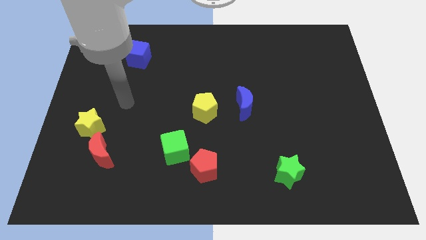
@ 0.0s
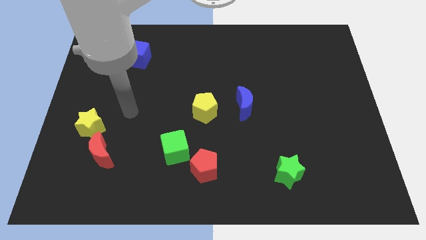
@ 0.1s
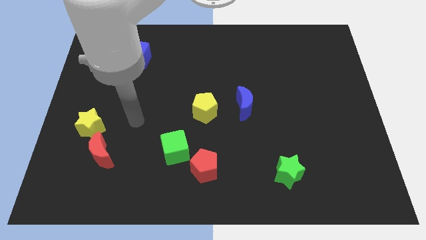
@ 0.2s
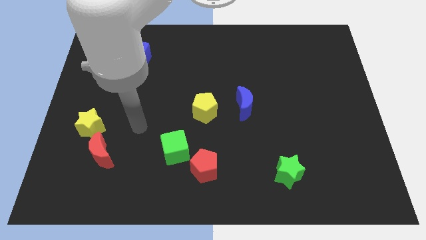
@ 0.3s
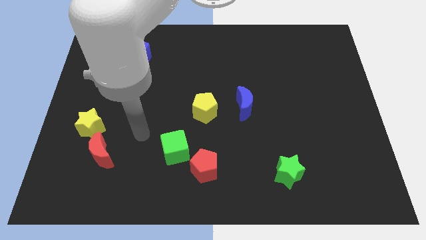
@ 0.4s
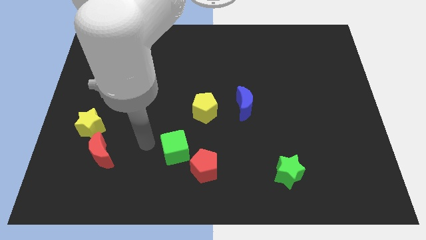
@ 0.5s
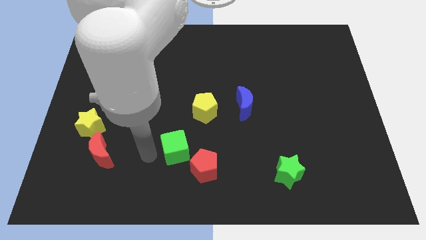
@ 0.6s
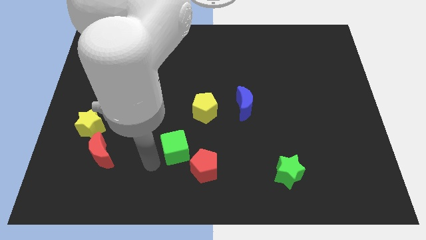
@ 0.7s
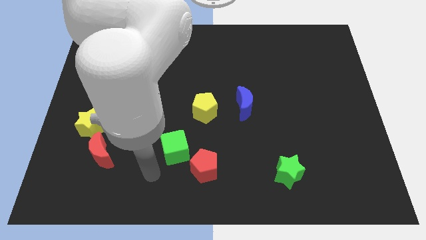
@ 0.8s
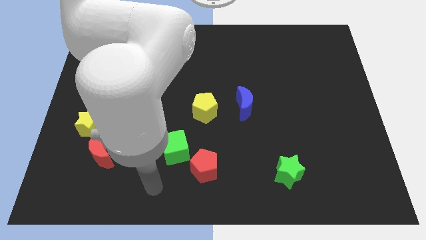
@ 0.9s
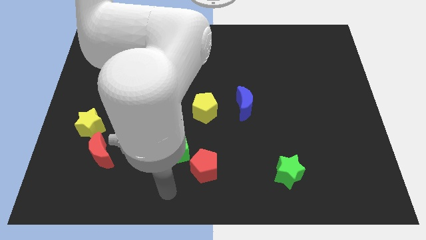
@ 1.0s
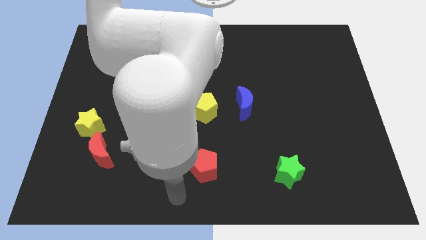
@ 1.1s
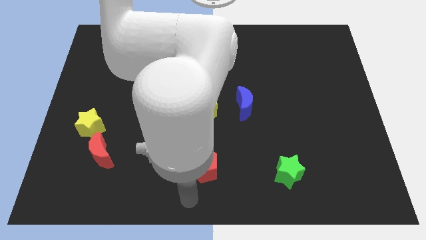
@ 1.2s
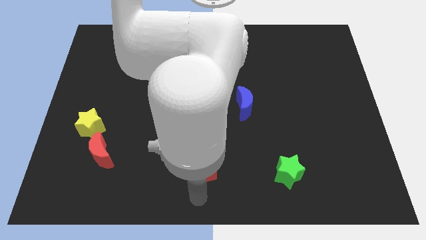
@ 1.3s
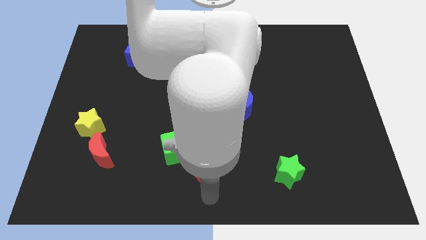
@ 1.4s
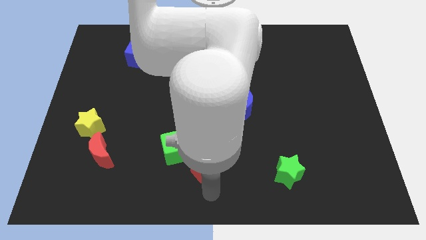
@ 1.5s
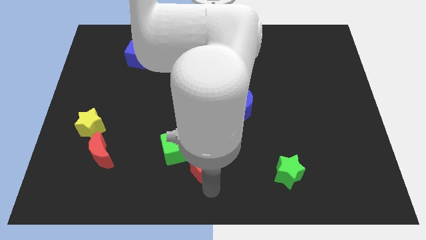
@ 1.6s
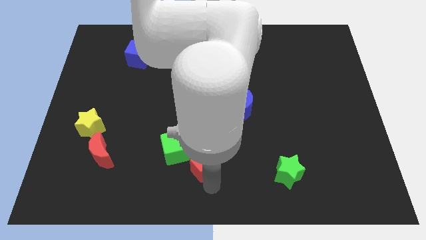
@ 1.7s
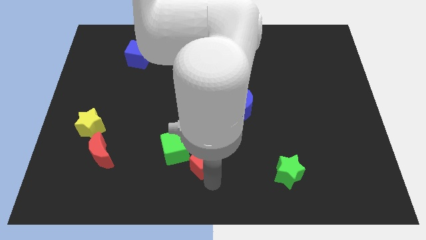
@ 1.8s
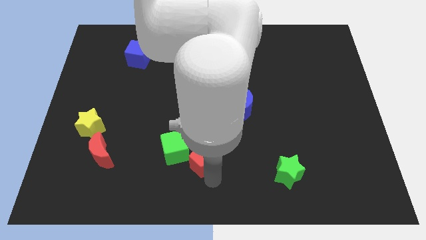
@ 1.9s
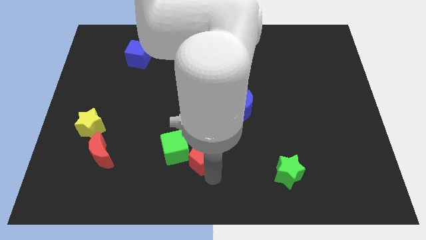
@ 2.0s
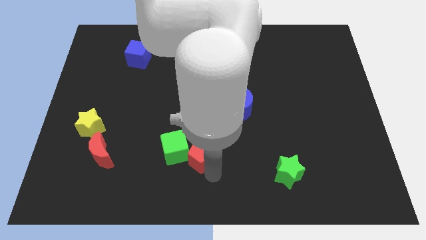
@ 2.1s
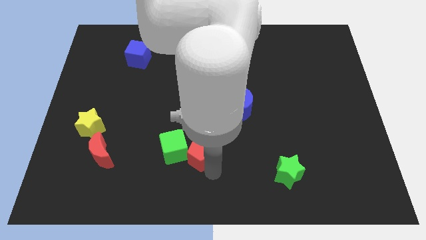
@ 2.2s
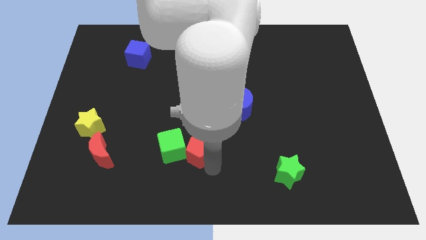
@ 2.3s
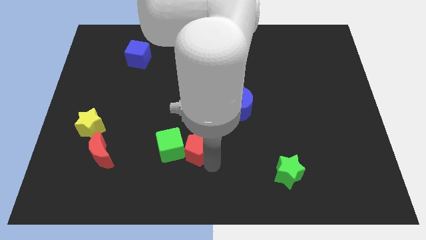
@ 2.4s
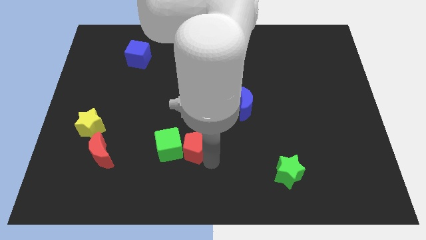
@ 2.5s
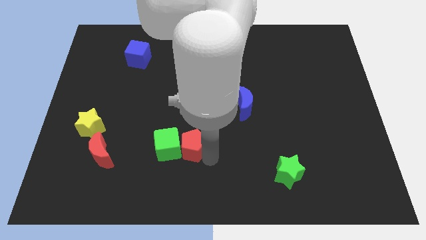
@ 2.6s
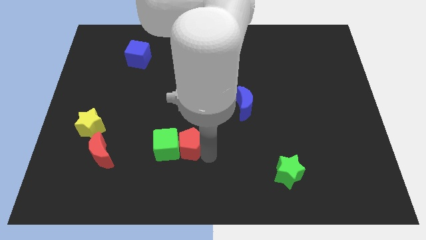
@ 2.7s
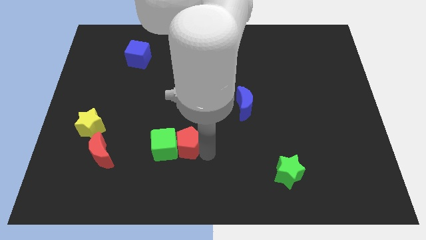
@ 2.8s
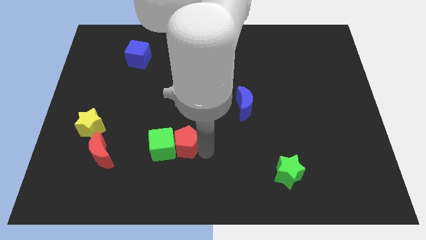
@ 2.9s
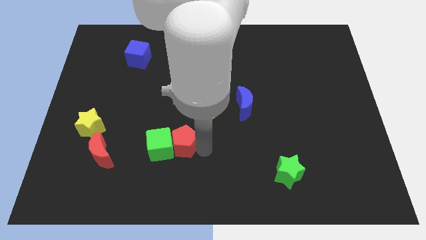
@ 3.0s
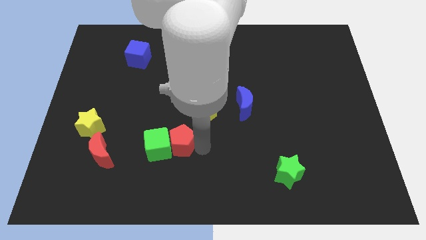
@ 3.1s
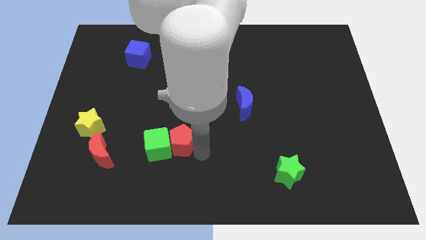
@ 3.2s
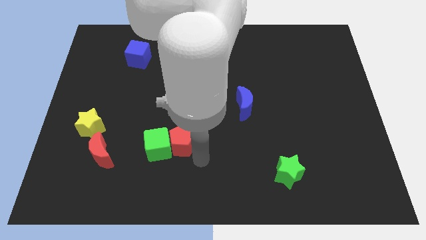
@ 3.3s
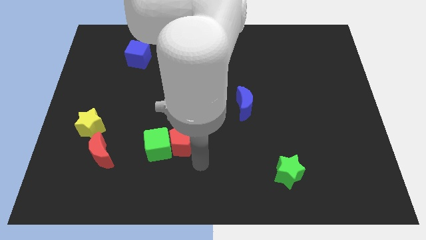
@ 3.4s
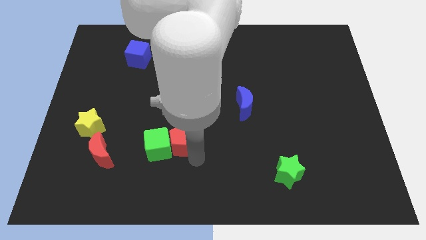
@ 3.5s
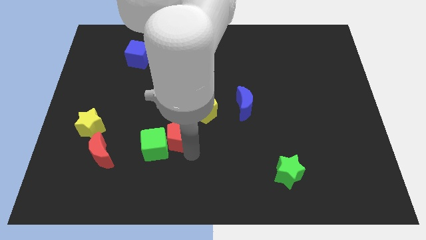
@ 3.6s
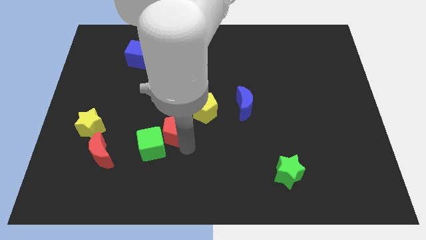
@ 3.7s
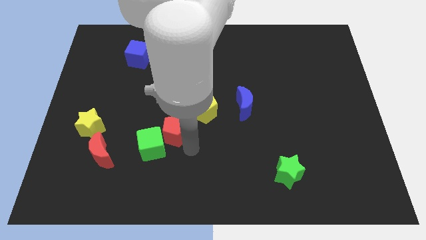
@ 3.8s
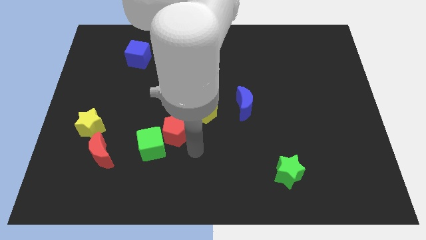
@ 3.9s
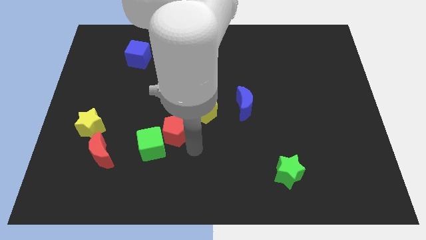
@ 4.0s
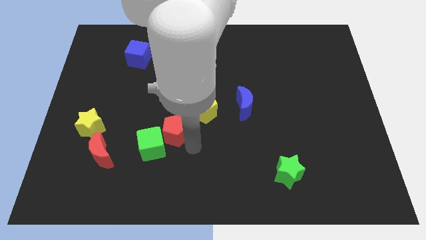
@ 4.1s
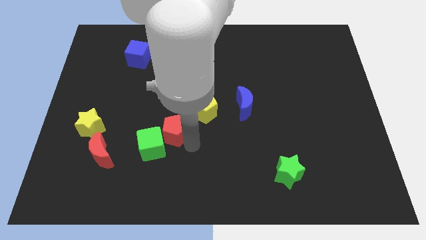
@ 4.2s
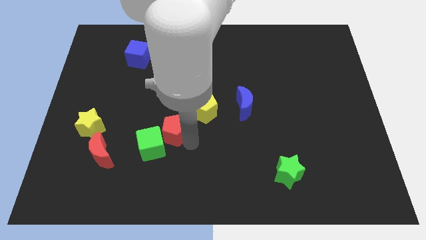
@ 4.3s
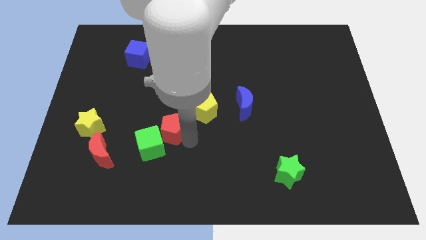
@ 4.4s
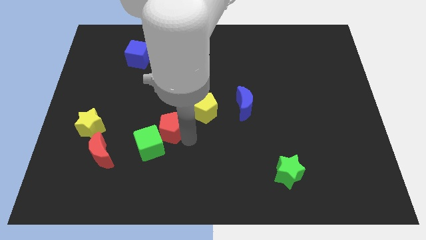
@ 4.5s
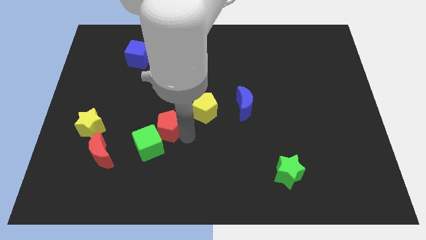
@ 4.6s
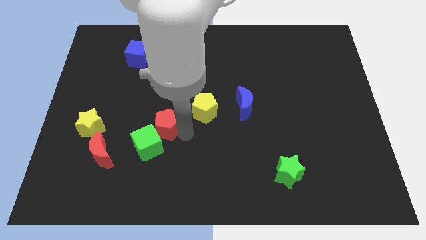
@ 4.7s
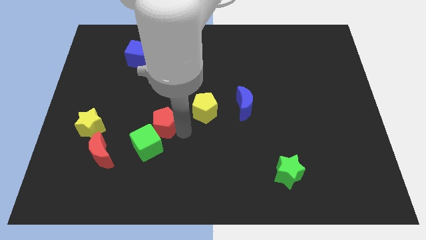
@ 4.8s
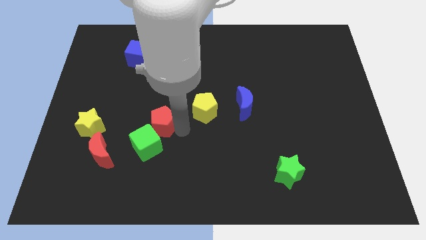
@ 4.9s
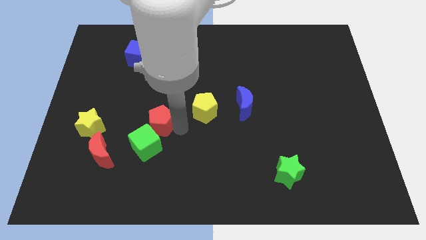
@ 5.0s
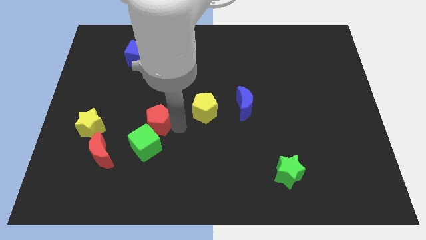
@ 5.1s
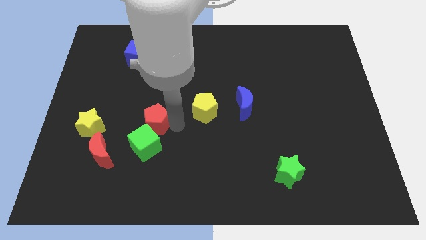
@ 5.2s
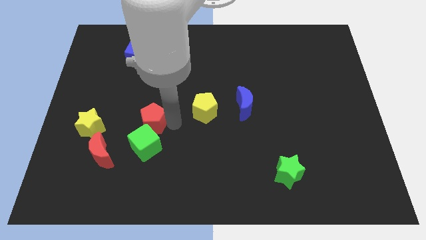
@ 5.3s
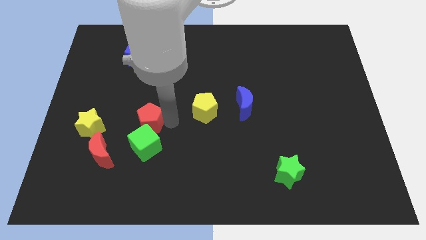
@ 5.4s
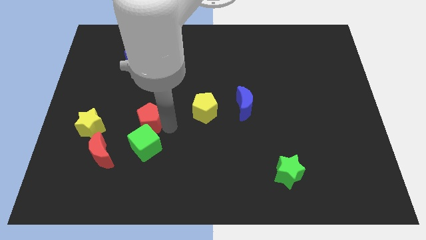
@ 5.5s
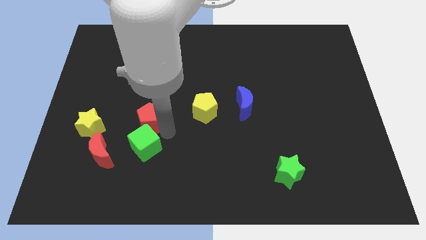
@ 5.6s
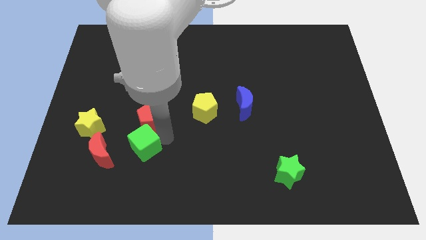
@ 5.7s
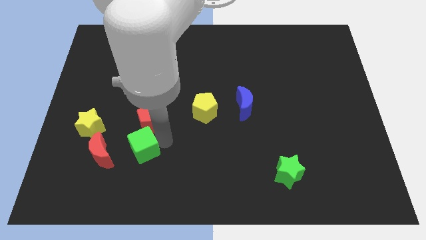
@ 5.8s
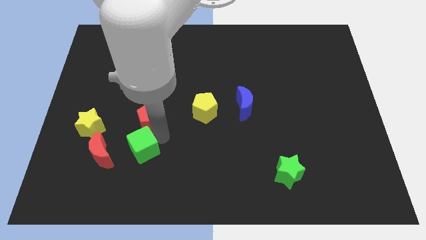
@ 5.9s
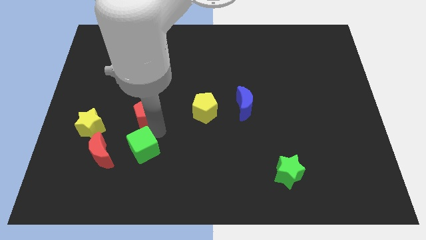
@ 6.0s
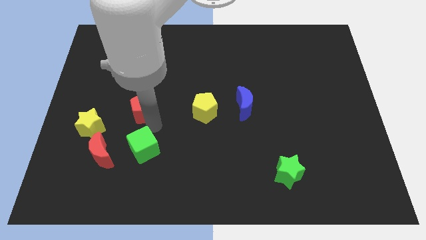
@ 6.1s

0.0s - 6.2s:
move the red pentagon upwards and then left

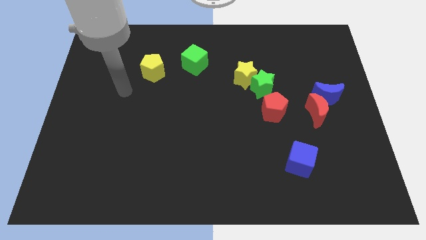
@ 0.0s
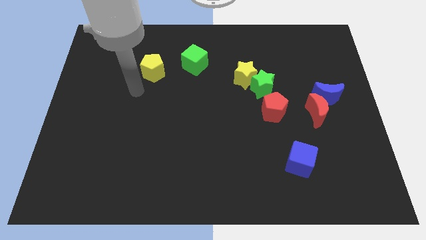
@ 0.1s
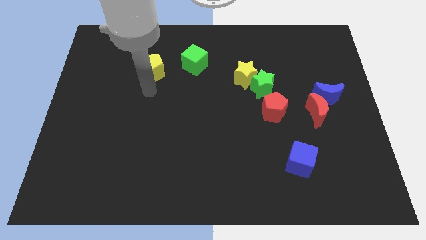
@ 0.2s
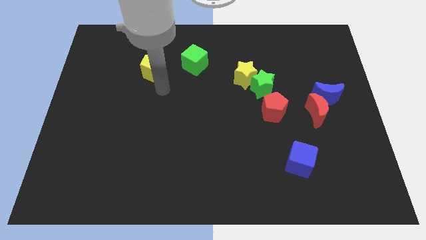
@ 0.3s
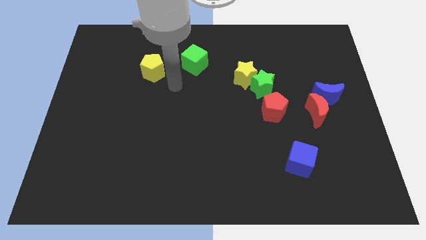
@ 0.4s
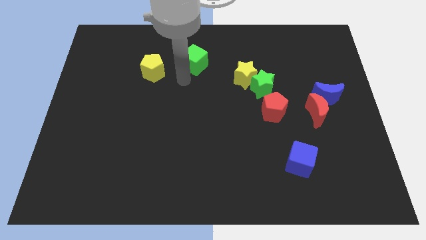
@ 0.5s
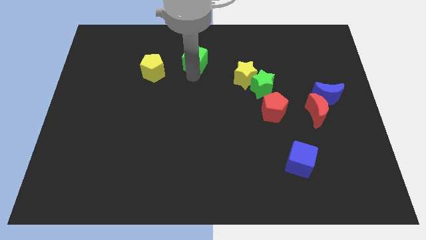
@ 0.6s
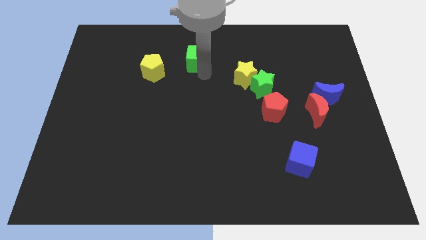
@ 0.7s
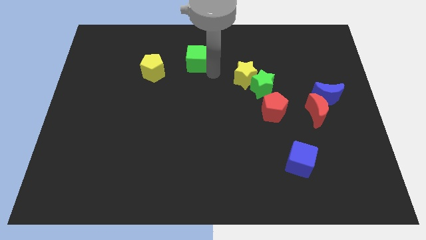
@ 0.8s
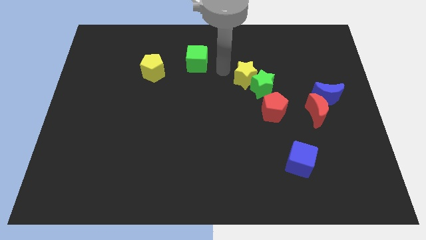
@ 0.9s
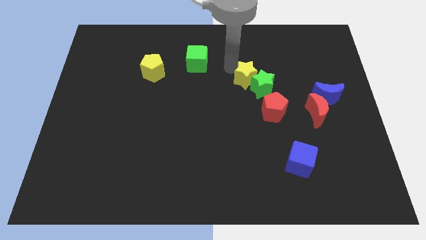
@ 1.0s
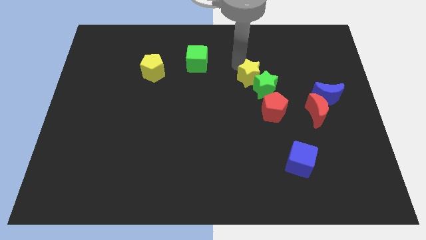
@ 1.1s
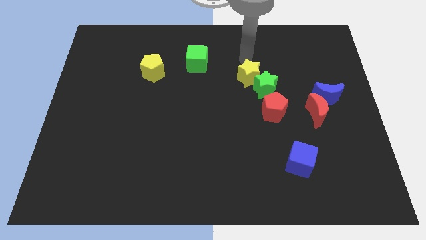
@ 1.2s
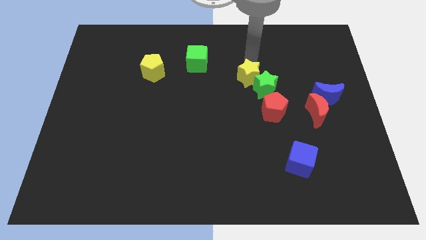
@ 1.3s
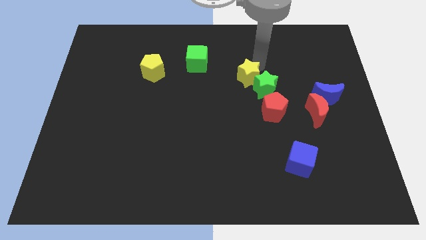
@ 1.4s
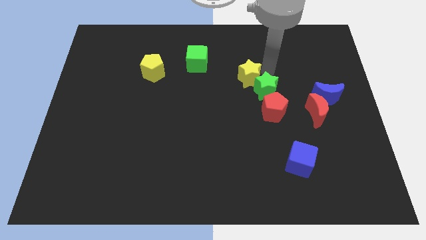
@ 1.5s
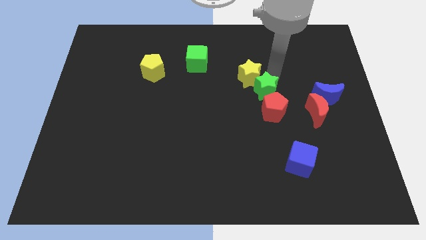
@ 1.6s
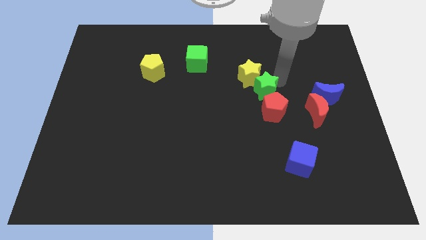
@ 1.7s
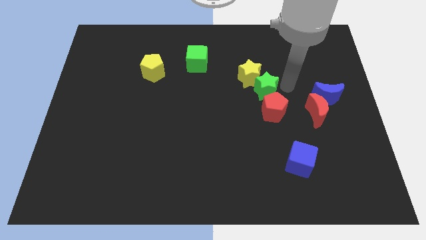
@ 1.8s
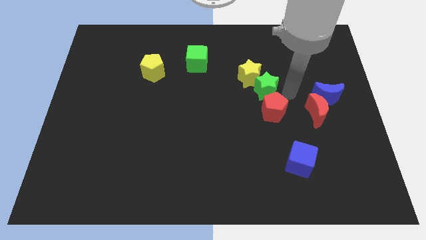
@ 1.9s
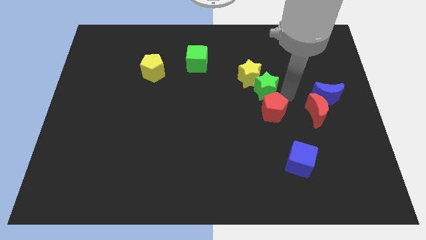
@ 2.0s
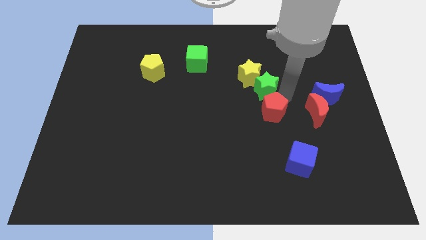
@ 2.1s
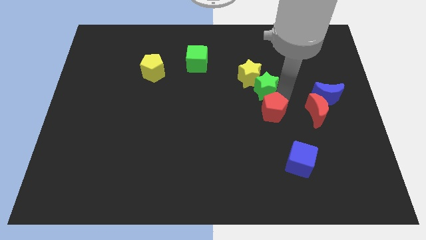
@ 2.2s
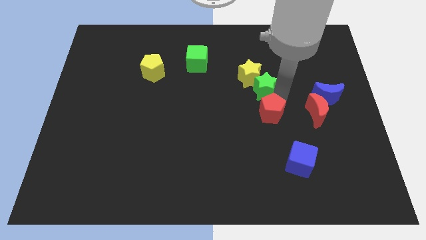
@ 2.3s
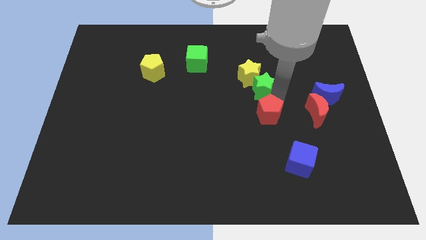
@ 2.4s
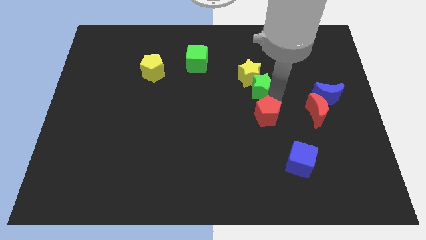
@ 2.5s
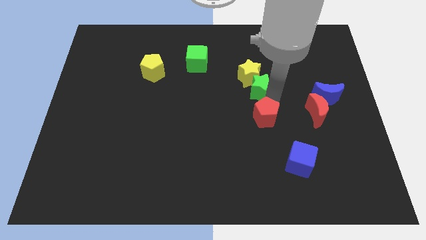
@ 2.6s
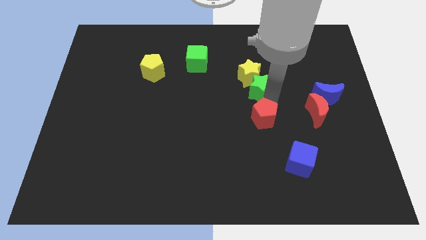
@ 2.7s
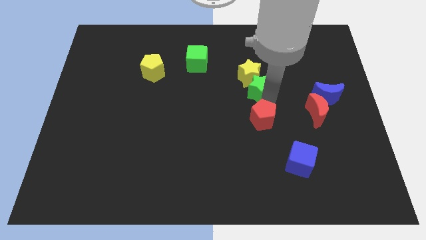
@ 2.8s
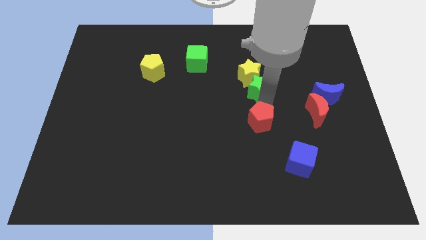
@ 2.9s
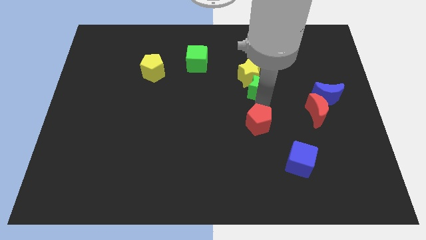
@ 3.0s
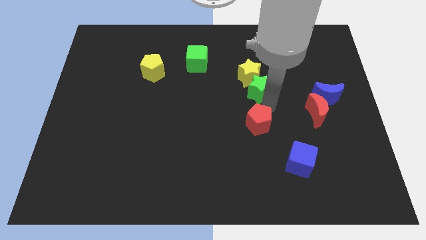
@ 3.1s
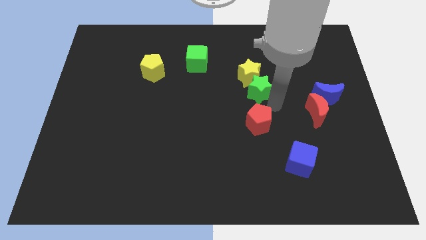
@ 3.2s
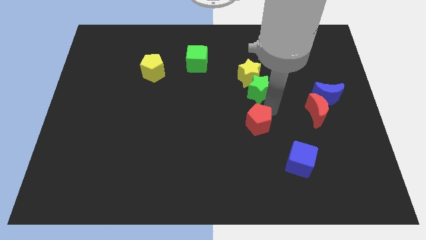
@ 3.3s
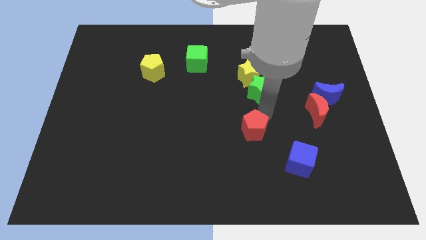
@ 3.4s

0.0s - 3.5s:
slide the red pentagon a bit downwards and left diagonally
